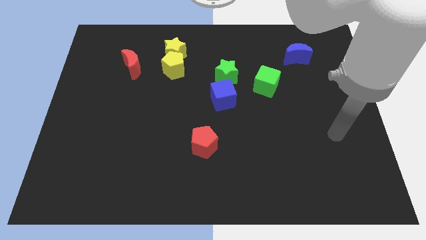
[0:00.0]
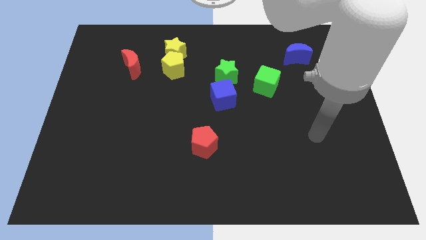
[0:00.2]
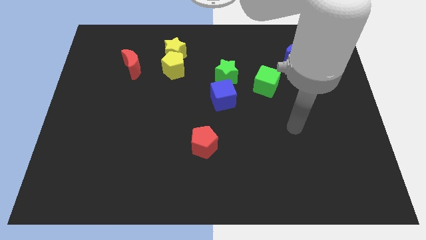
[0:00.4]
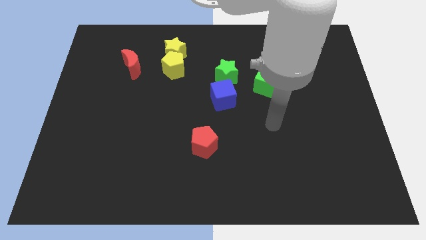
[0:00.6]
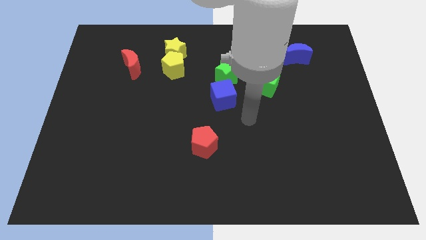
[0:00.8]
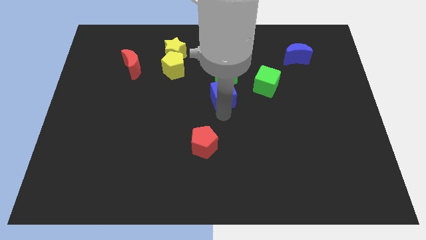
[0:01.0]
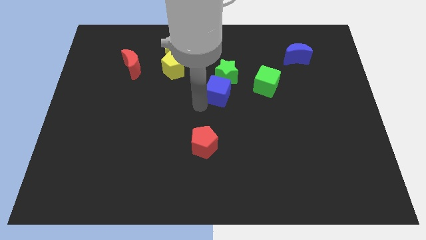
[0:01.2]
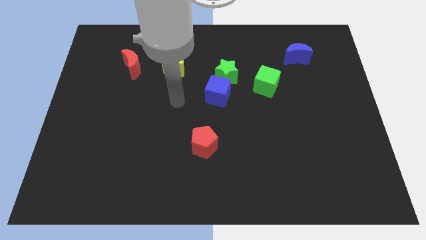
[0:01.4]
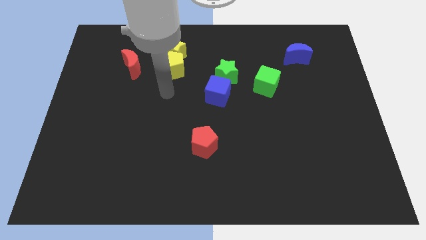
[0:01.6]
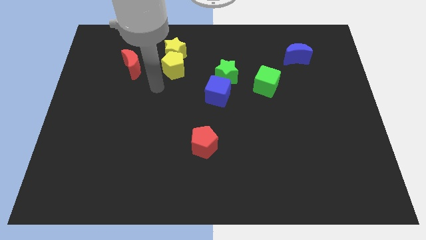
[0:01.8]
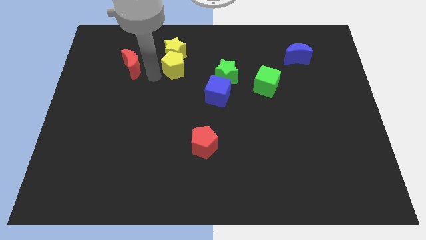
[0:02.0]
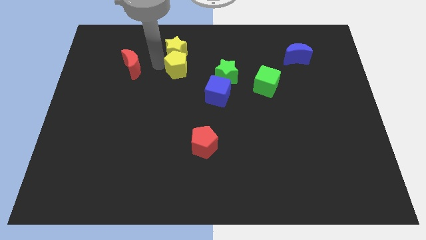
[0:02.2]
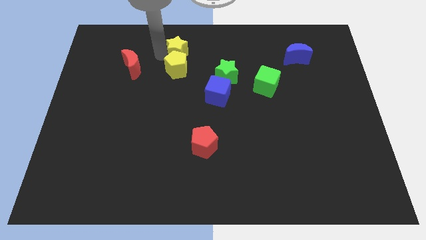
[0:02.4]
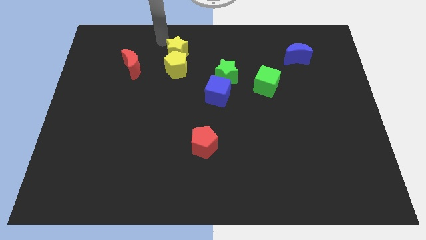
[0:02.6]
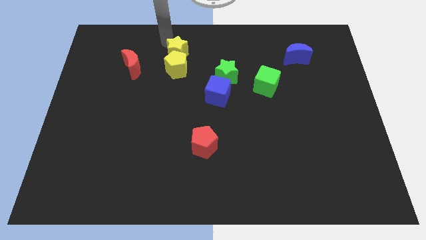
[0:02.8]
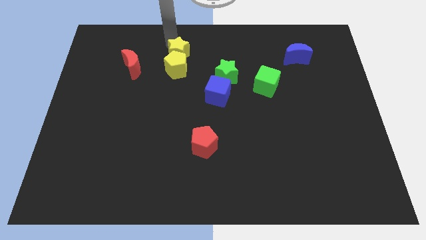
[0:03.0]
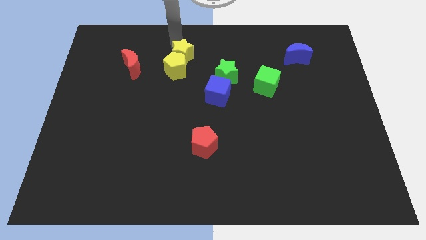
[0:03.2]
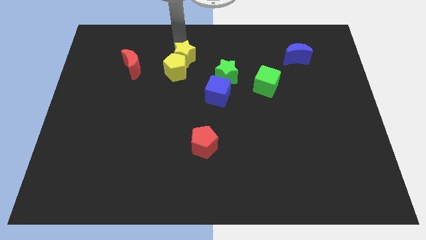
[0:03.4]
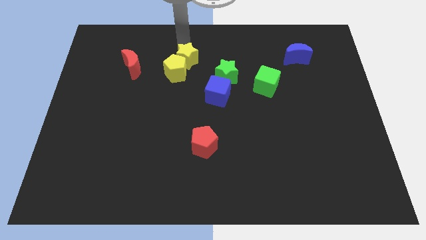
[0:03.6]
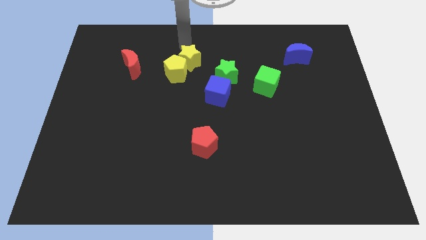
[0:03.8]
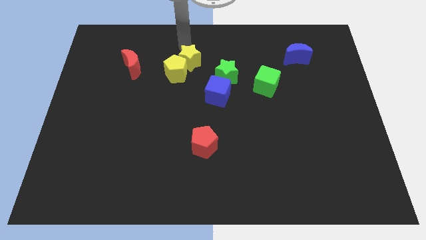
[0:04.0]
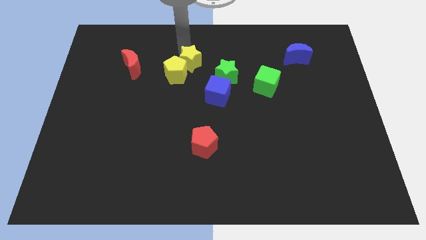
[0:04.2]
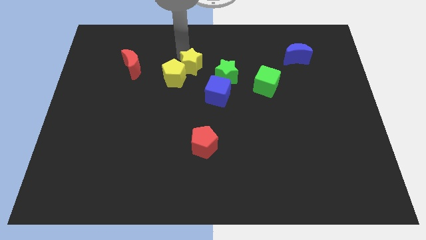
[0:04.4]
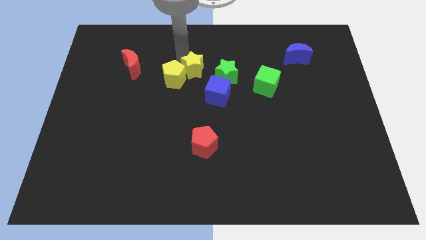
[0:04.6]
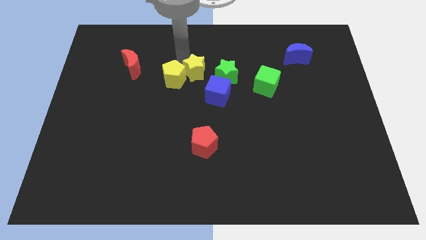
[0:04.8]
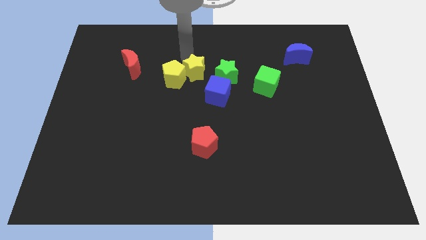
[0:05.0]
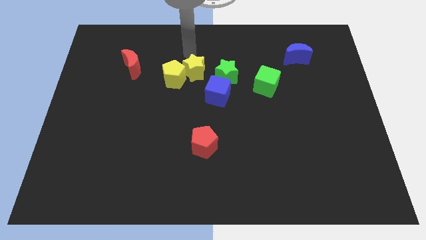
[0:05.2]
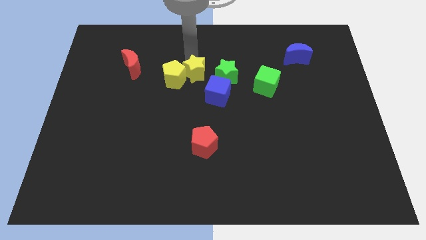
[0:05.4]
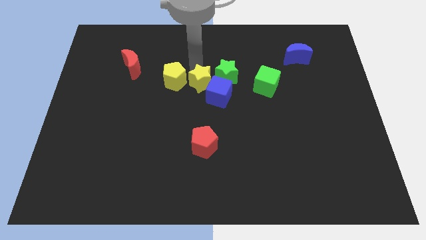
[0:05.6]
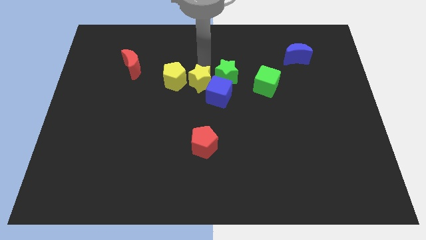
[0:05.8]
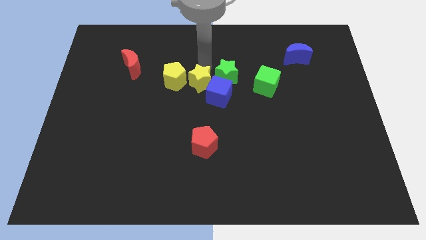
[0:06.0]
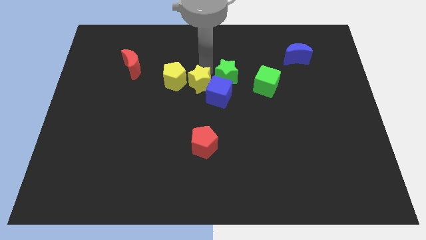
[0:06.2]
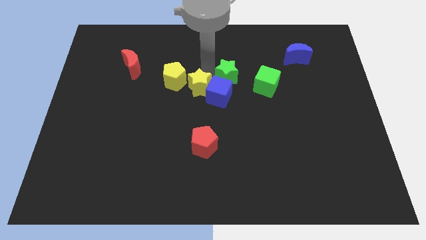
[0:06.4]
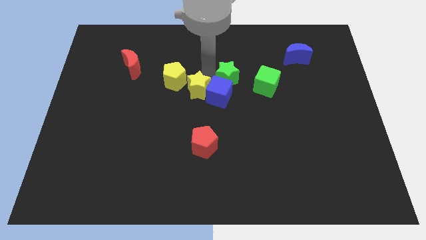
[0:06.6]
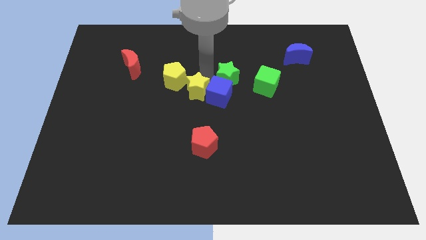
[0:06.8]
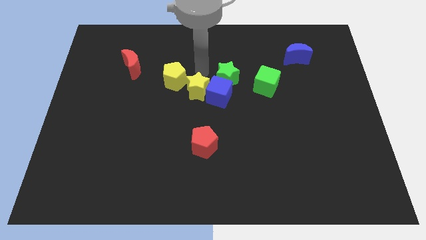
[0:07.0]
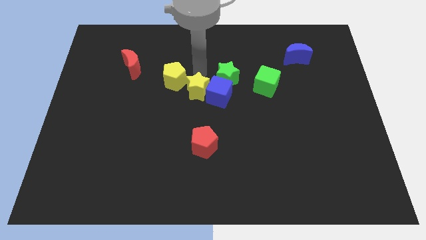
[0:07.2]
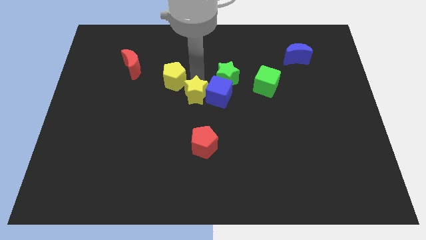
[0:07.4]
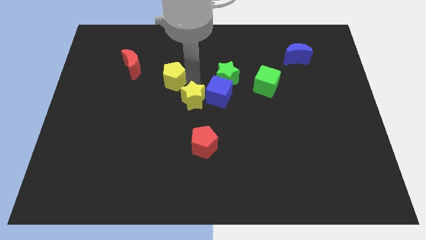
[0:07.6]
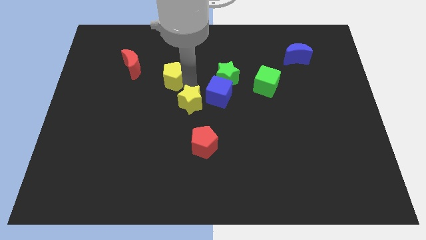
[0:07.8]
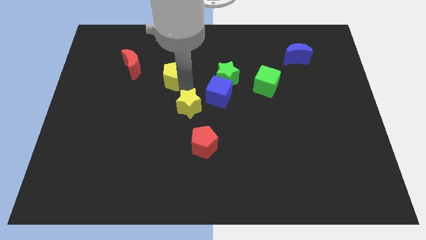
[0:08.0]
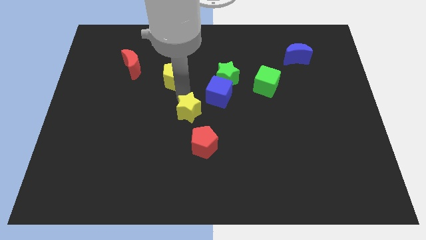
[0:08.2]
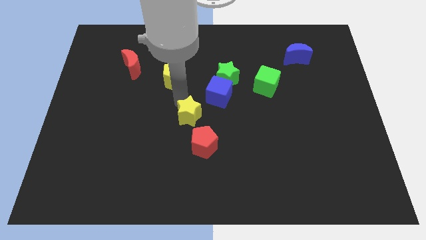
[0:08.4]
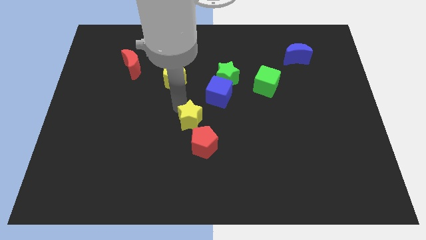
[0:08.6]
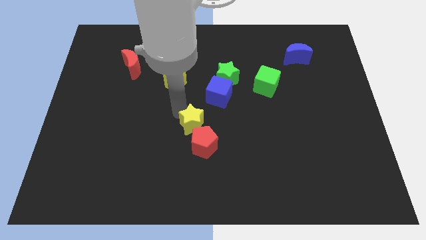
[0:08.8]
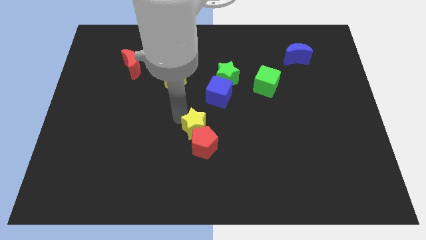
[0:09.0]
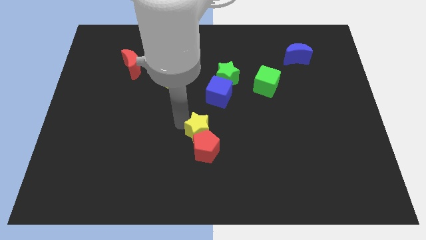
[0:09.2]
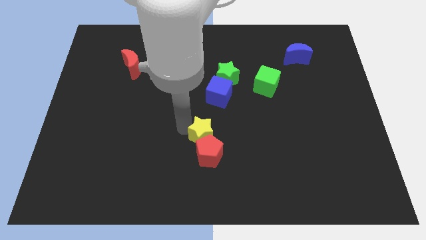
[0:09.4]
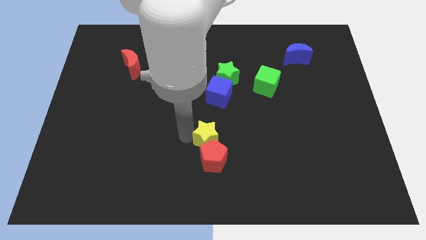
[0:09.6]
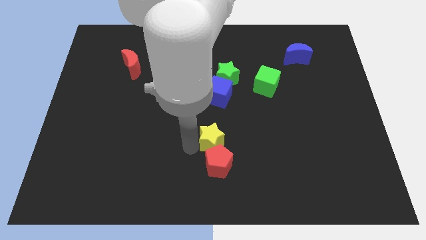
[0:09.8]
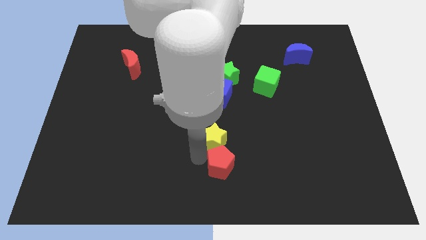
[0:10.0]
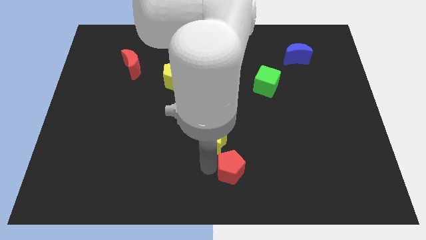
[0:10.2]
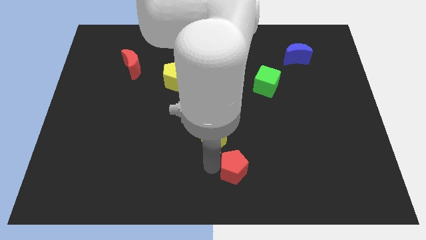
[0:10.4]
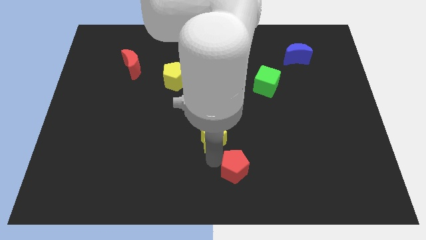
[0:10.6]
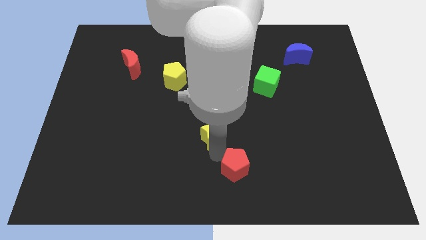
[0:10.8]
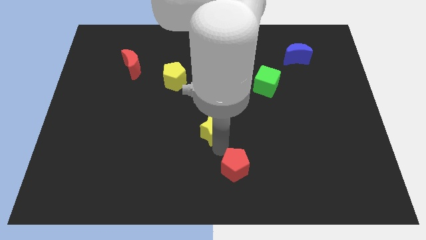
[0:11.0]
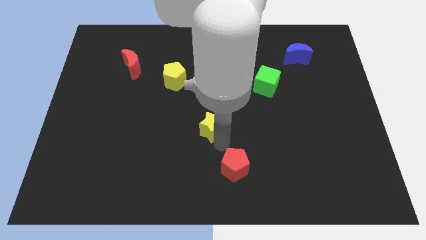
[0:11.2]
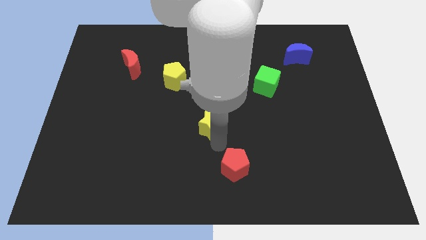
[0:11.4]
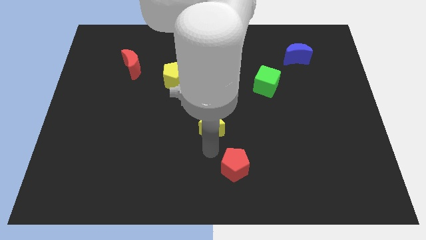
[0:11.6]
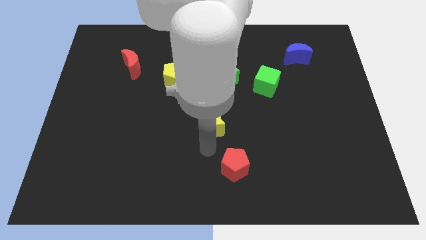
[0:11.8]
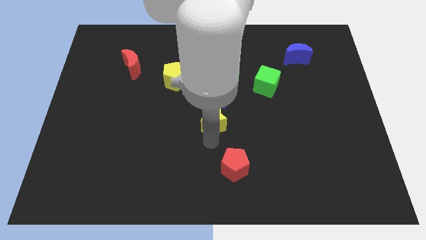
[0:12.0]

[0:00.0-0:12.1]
push the yellow star diagonally downwards and to the right

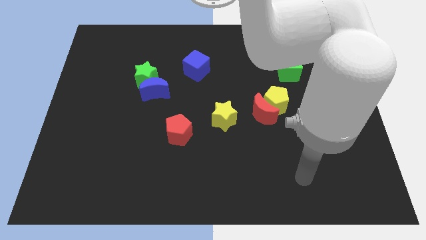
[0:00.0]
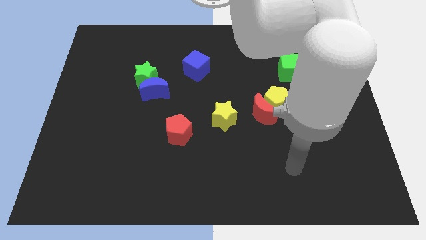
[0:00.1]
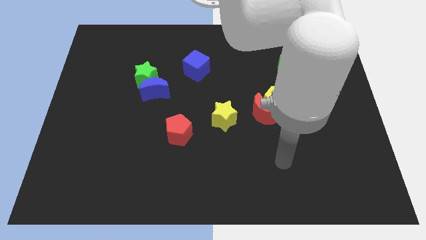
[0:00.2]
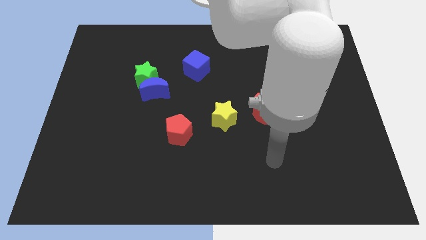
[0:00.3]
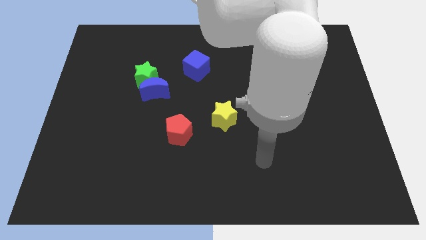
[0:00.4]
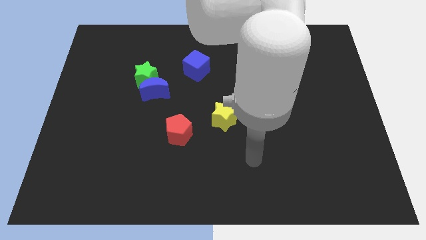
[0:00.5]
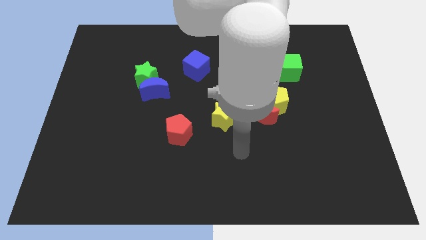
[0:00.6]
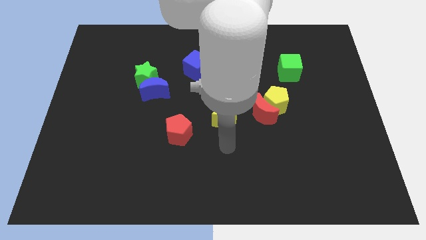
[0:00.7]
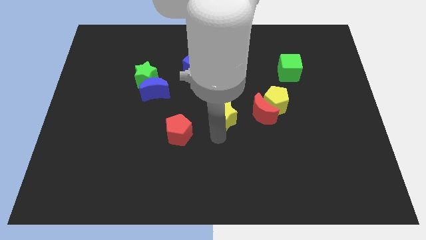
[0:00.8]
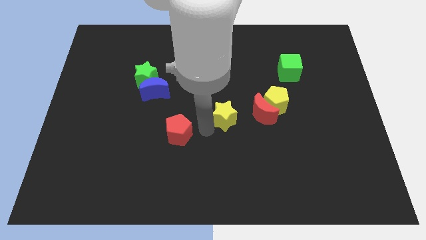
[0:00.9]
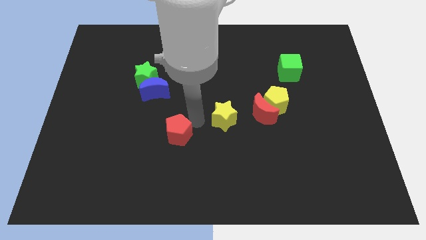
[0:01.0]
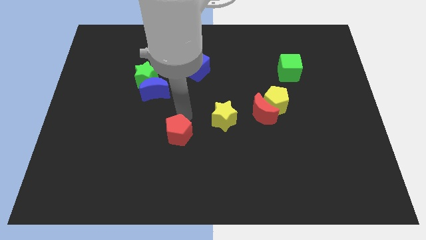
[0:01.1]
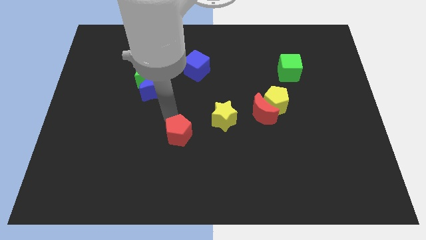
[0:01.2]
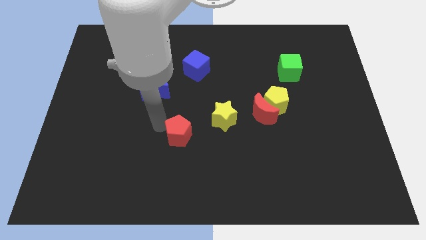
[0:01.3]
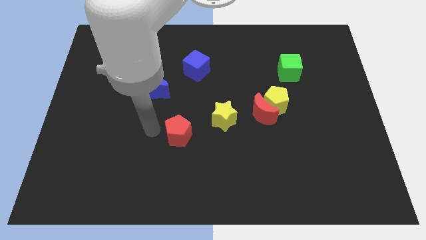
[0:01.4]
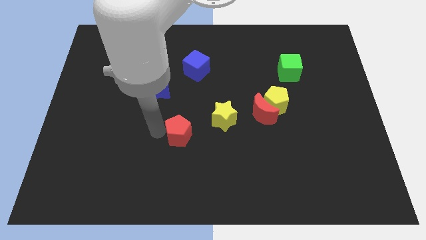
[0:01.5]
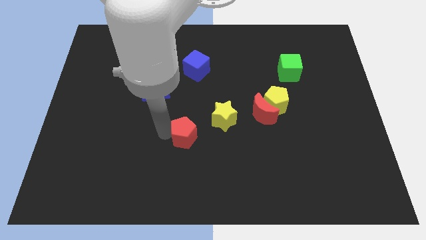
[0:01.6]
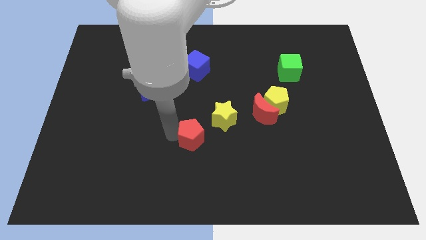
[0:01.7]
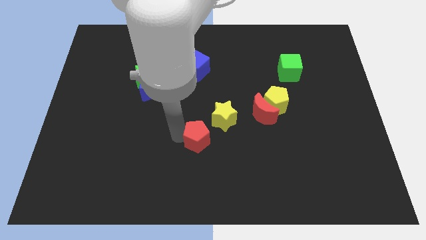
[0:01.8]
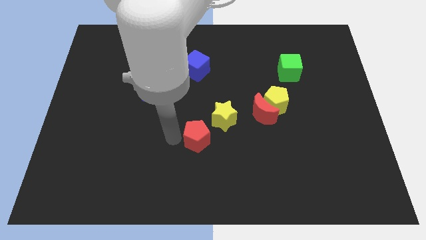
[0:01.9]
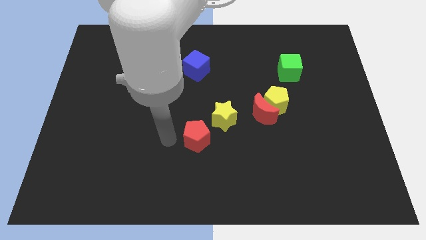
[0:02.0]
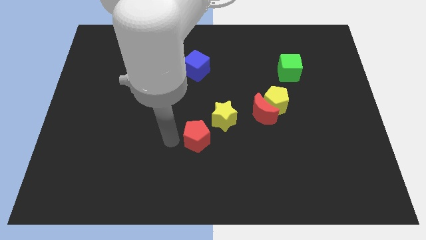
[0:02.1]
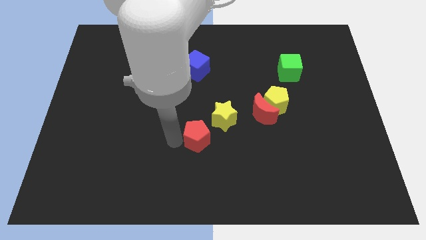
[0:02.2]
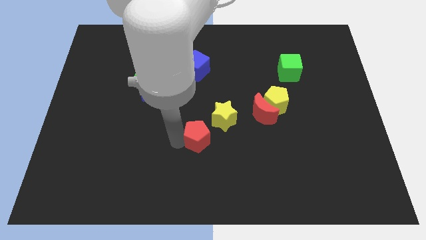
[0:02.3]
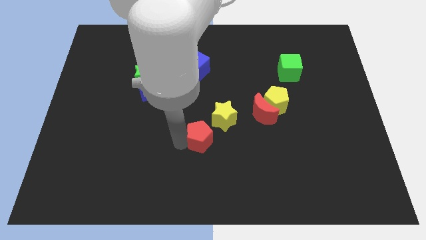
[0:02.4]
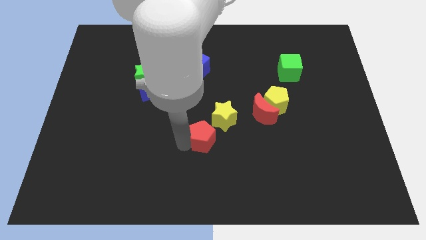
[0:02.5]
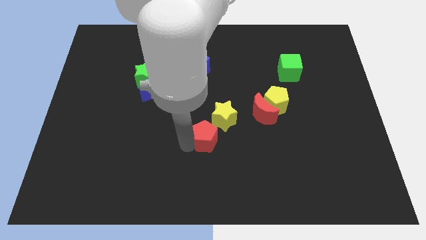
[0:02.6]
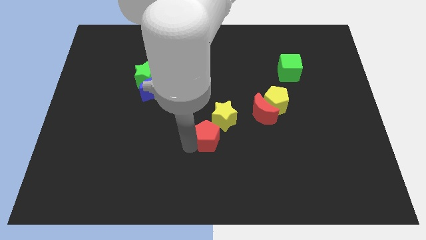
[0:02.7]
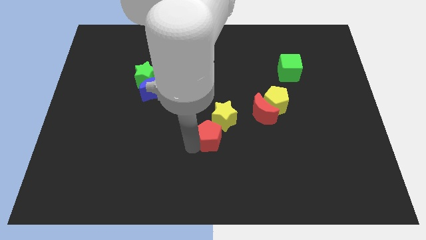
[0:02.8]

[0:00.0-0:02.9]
move the red pentagon right a little bit
